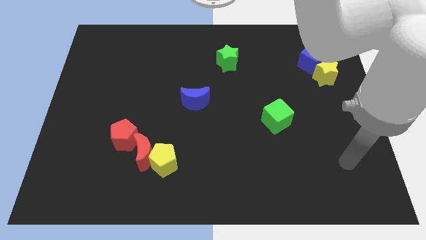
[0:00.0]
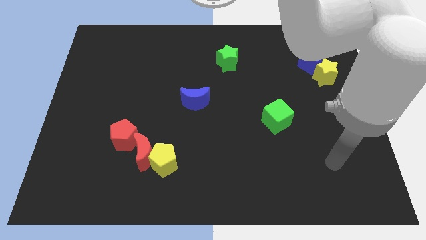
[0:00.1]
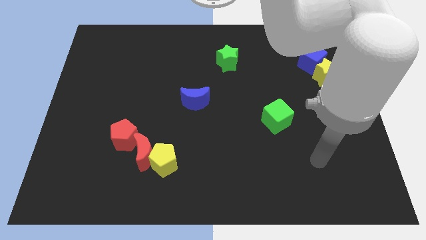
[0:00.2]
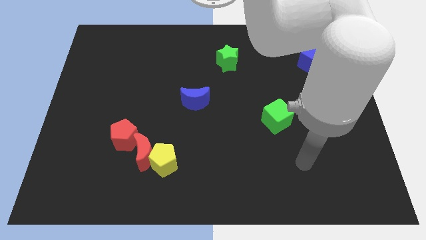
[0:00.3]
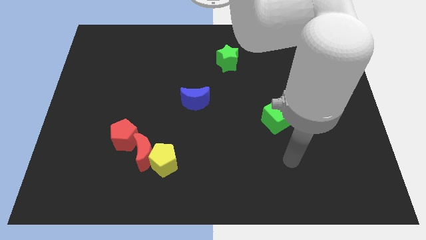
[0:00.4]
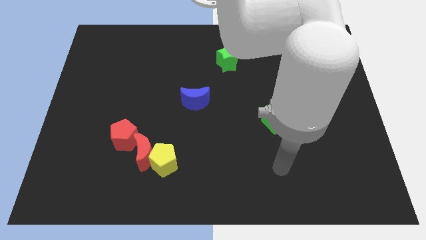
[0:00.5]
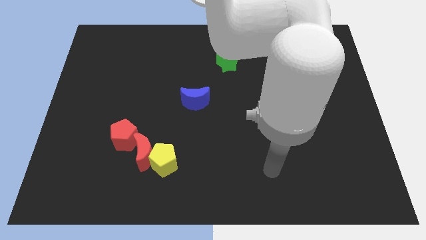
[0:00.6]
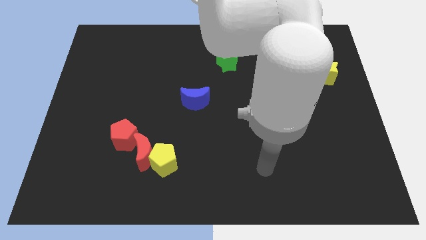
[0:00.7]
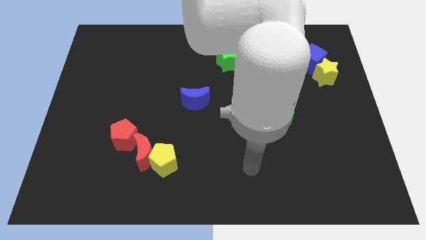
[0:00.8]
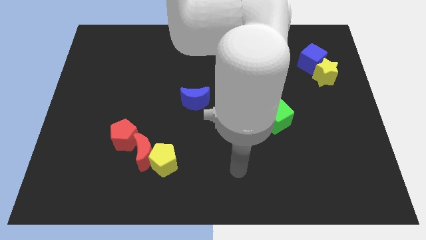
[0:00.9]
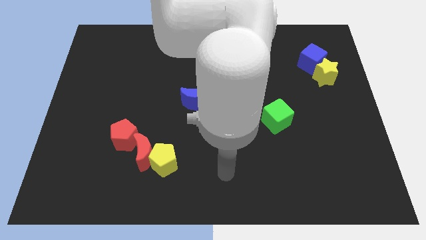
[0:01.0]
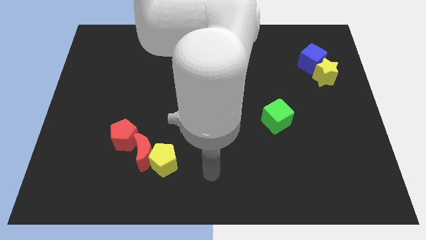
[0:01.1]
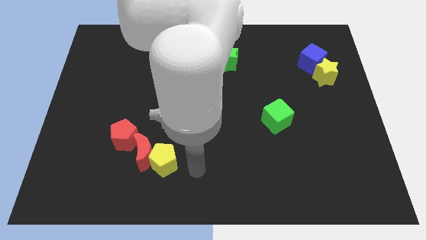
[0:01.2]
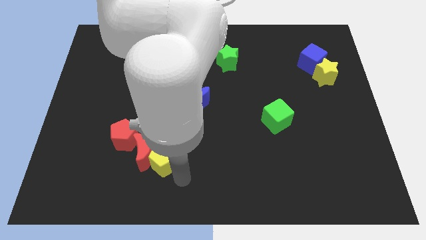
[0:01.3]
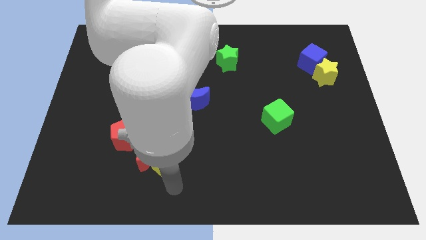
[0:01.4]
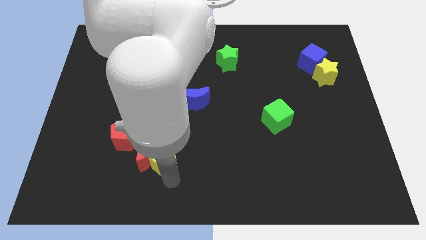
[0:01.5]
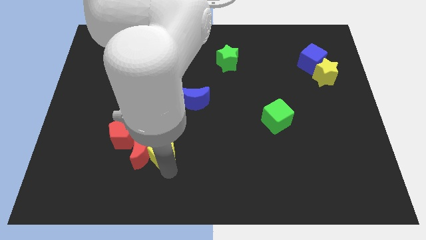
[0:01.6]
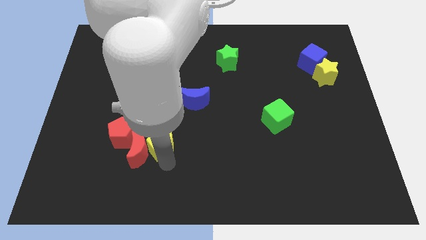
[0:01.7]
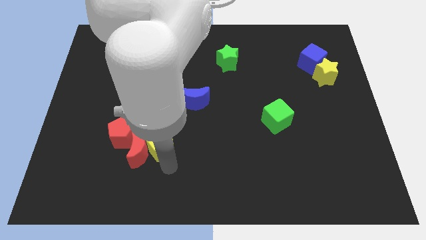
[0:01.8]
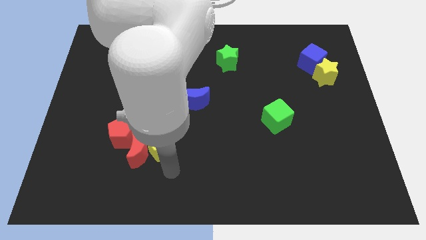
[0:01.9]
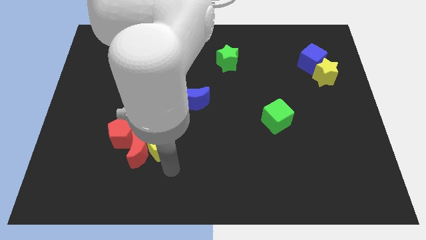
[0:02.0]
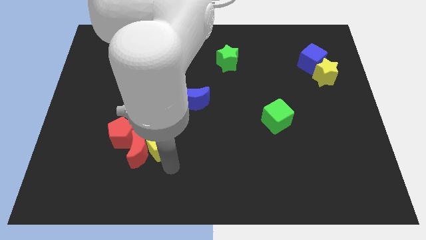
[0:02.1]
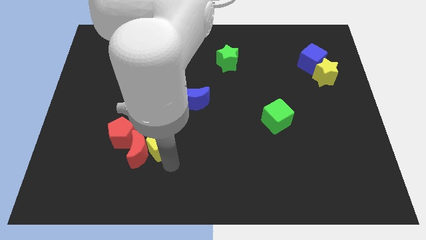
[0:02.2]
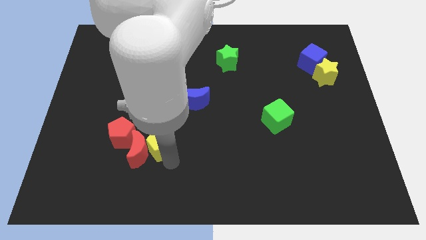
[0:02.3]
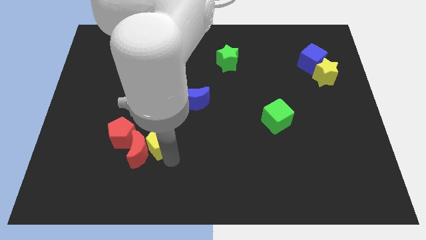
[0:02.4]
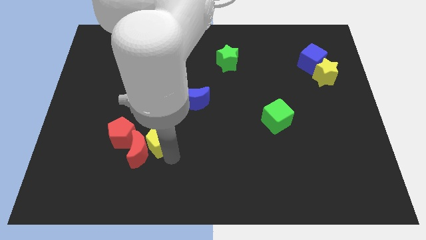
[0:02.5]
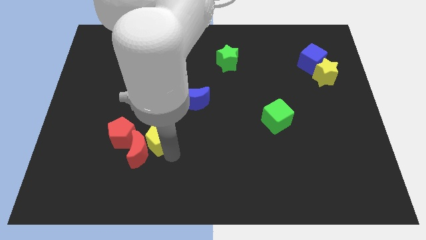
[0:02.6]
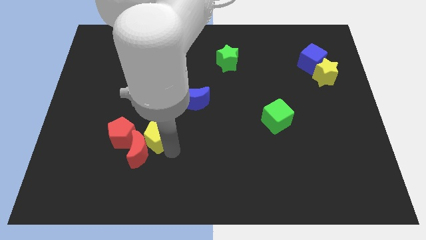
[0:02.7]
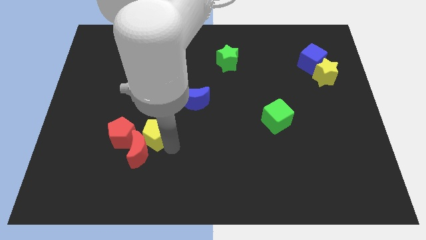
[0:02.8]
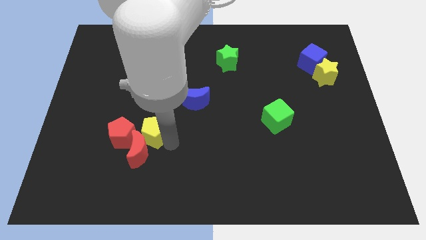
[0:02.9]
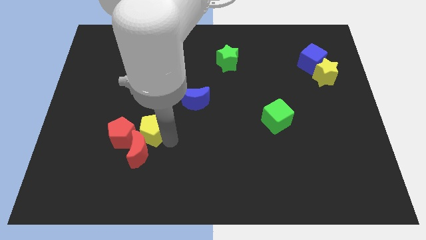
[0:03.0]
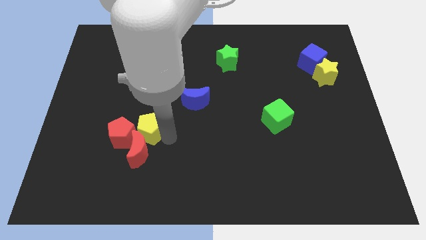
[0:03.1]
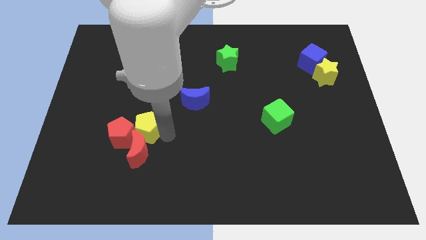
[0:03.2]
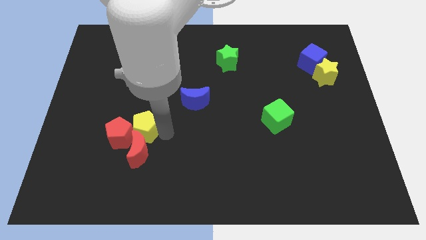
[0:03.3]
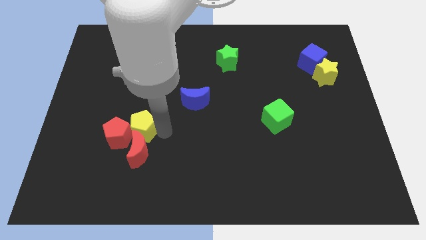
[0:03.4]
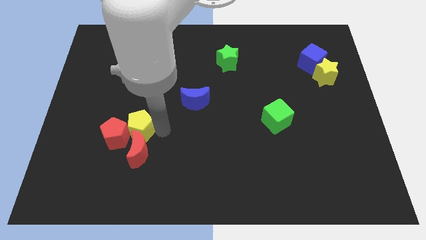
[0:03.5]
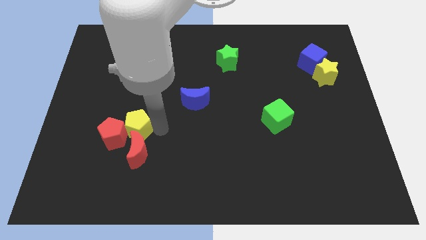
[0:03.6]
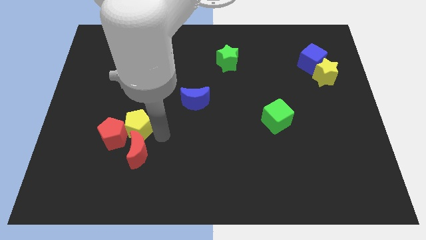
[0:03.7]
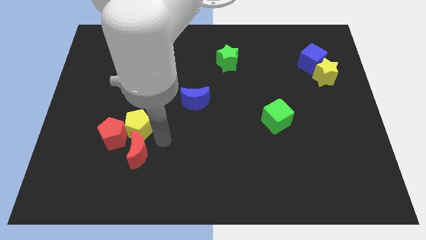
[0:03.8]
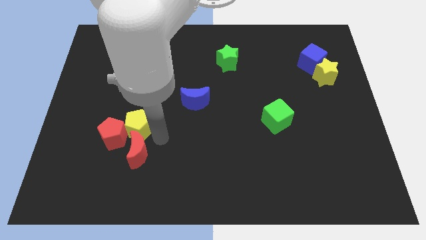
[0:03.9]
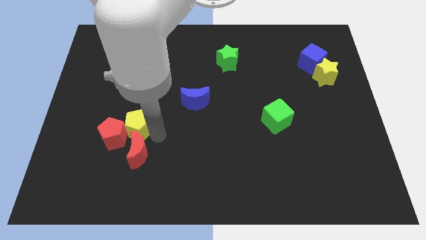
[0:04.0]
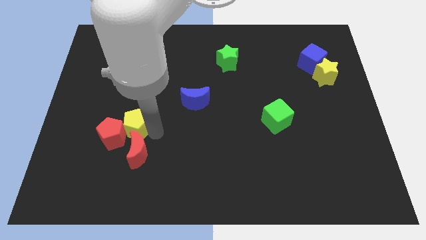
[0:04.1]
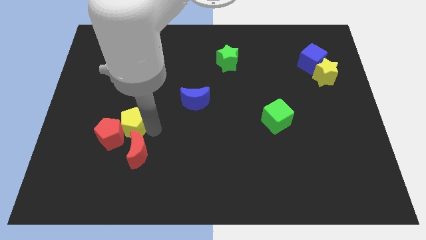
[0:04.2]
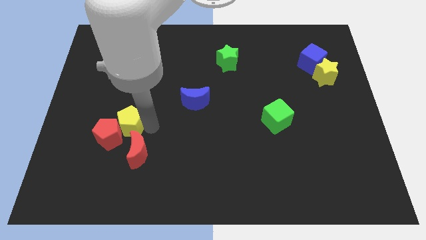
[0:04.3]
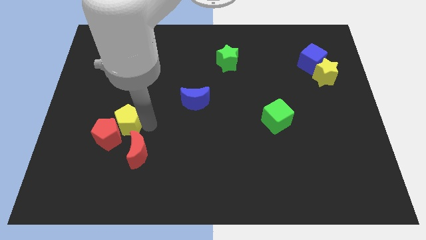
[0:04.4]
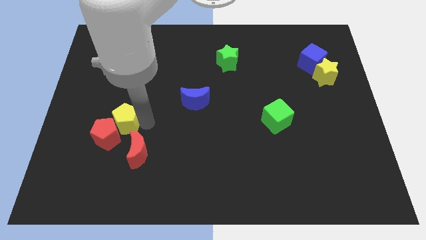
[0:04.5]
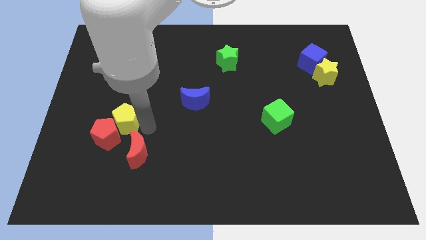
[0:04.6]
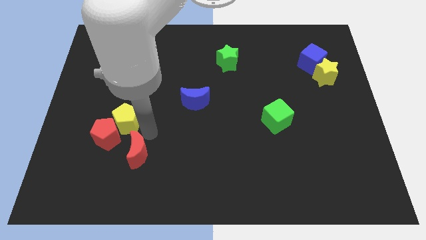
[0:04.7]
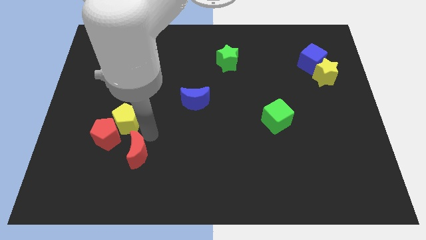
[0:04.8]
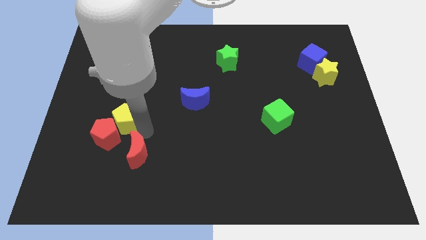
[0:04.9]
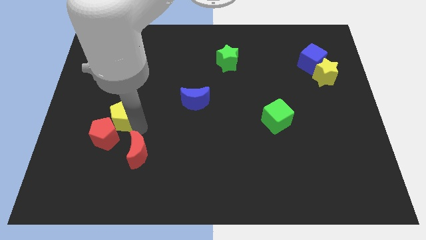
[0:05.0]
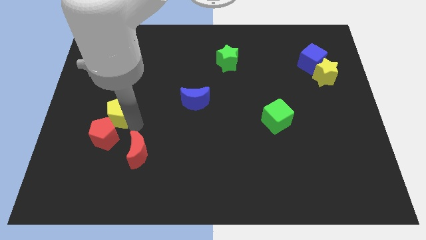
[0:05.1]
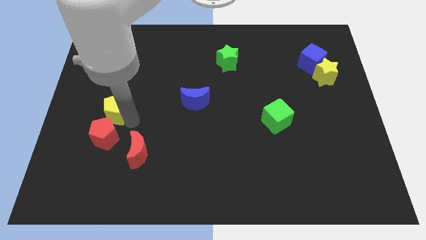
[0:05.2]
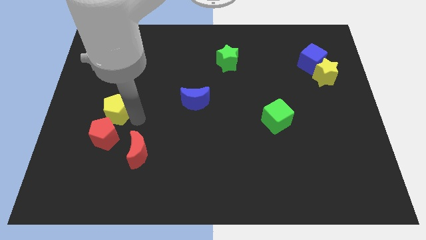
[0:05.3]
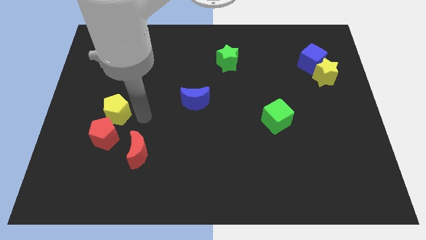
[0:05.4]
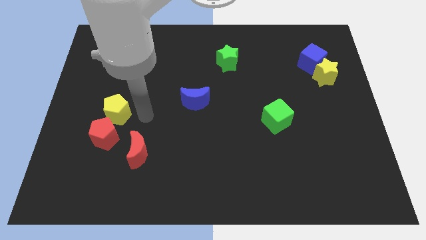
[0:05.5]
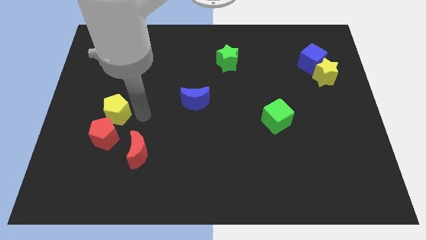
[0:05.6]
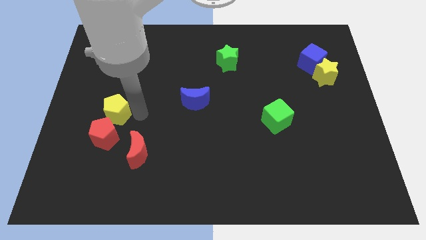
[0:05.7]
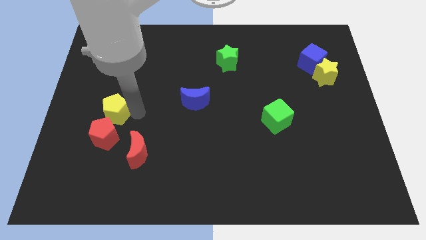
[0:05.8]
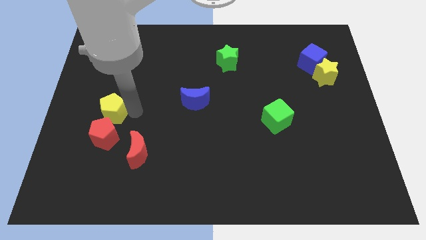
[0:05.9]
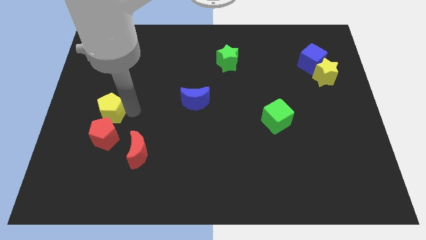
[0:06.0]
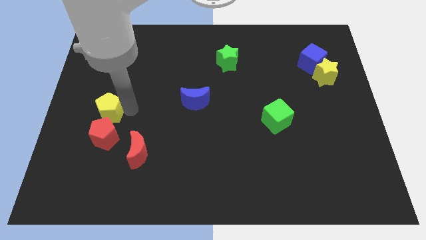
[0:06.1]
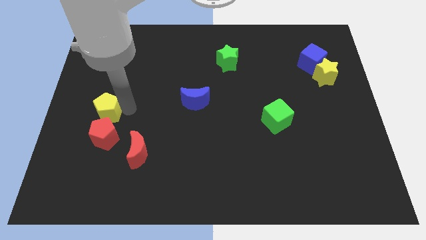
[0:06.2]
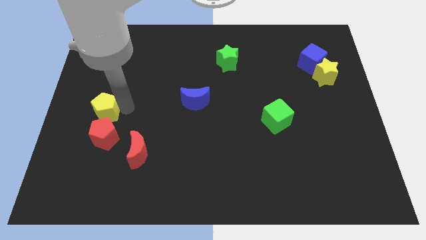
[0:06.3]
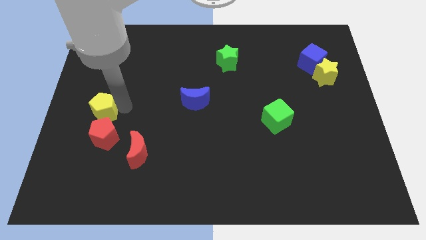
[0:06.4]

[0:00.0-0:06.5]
slide the yellow pentagon to the center left
